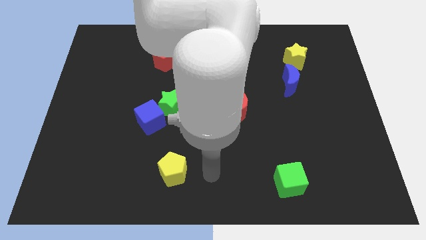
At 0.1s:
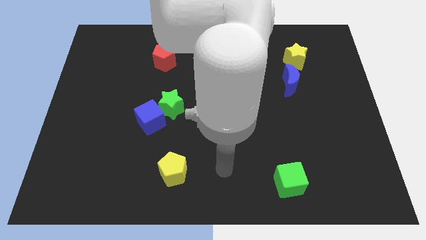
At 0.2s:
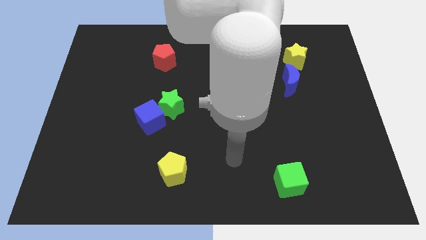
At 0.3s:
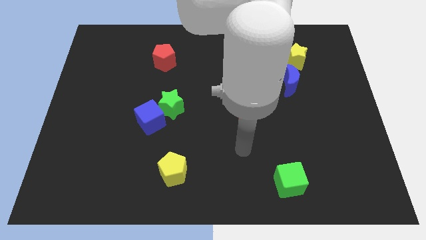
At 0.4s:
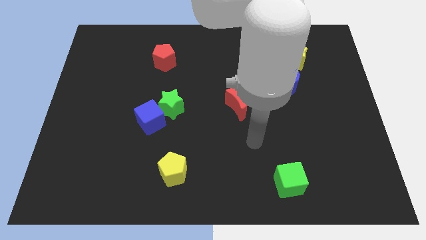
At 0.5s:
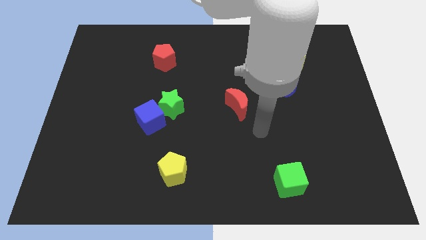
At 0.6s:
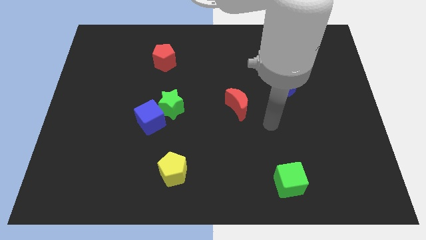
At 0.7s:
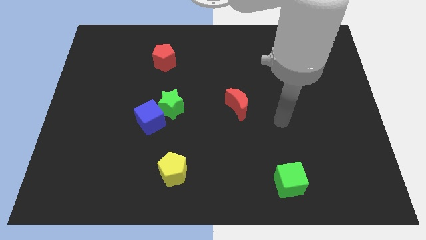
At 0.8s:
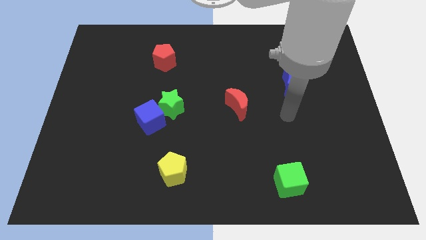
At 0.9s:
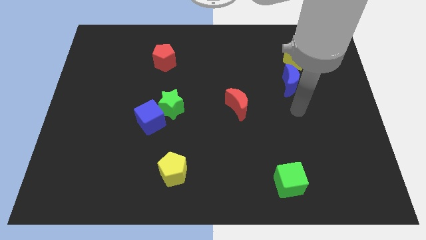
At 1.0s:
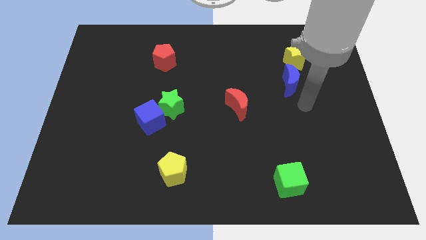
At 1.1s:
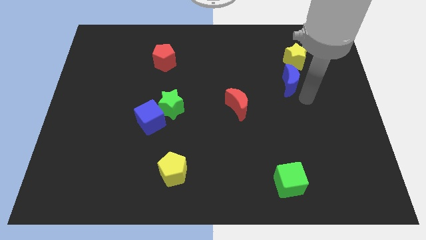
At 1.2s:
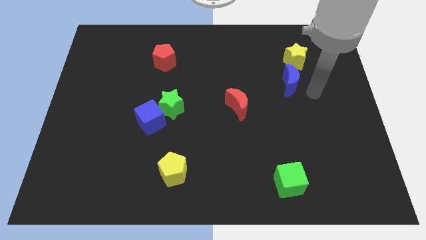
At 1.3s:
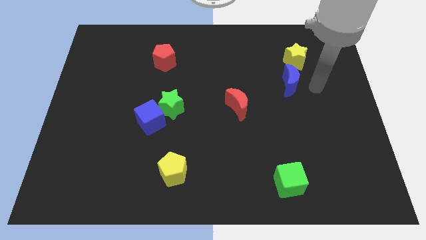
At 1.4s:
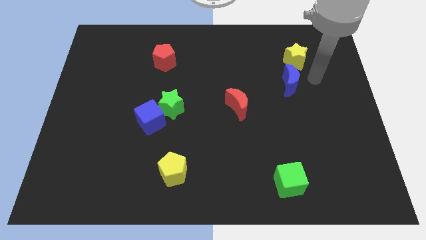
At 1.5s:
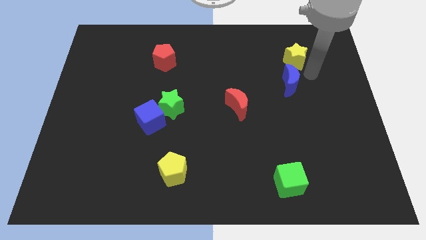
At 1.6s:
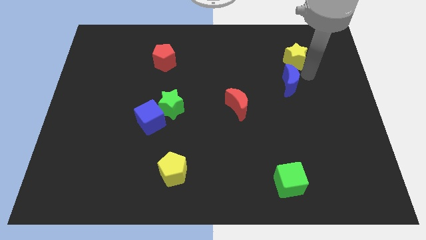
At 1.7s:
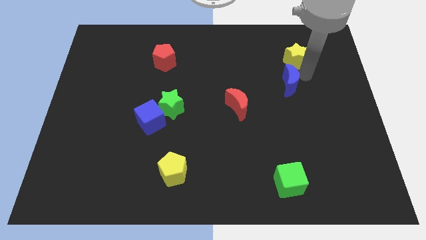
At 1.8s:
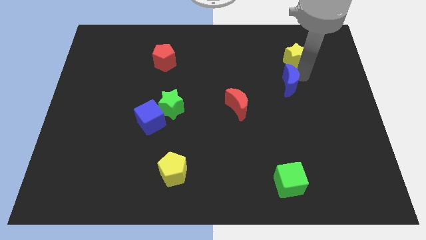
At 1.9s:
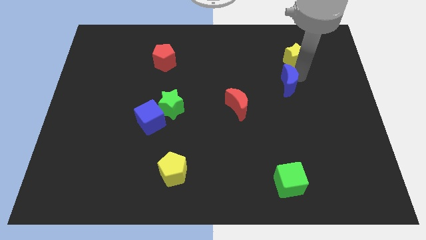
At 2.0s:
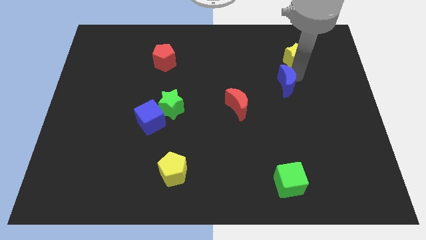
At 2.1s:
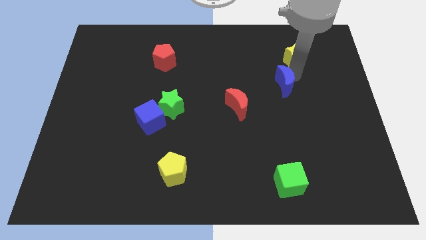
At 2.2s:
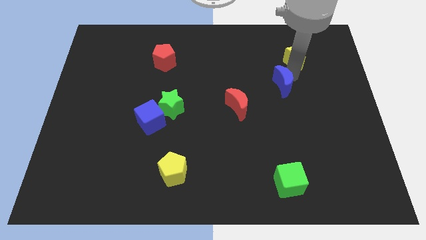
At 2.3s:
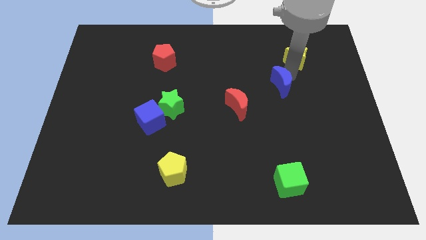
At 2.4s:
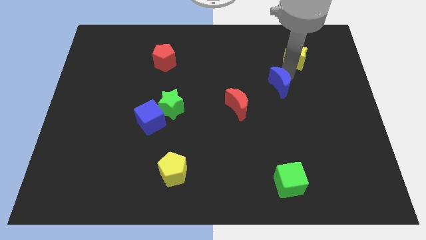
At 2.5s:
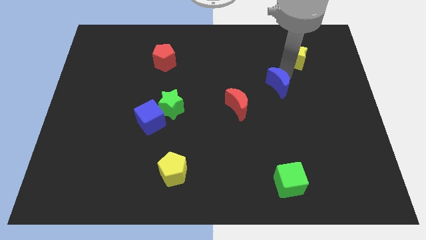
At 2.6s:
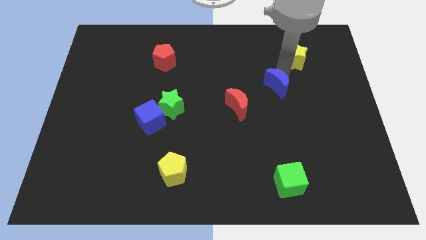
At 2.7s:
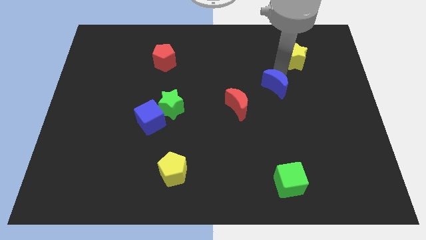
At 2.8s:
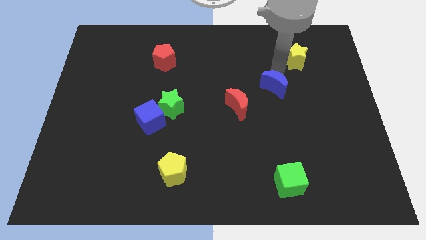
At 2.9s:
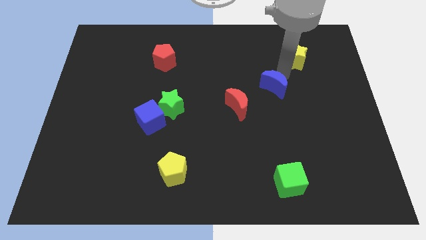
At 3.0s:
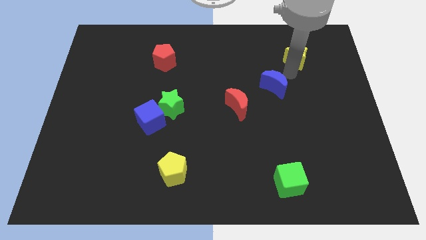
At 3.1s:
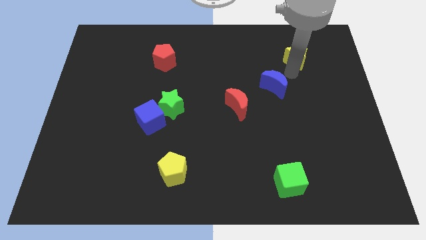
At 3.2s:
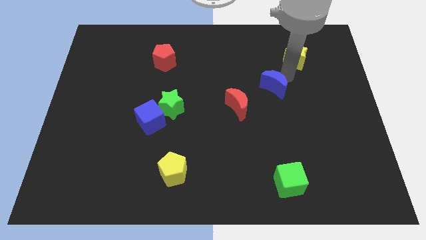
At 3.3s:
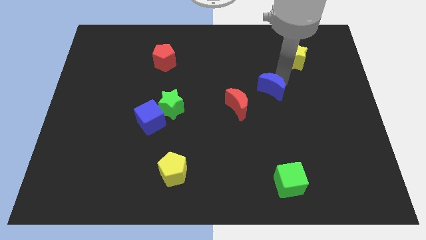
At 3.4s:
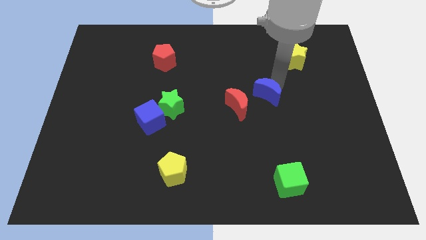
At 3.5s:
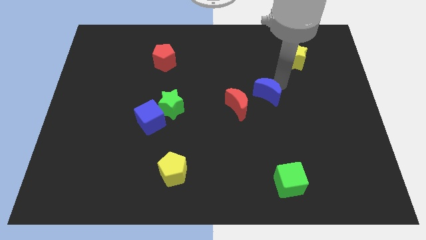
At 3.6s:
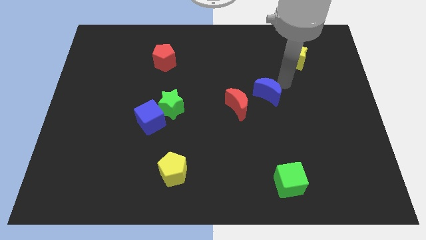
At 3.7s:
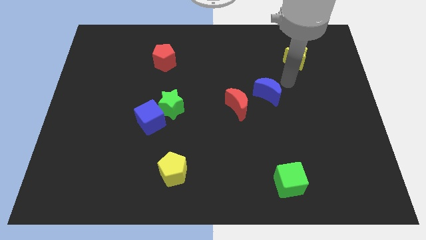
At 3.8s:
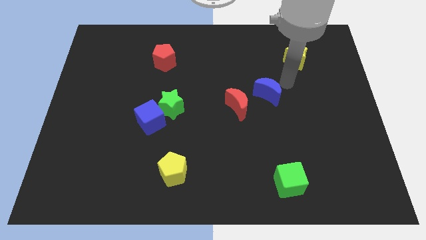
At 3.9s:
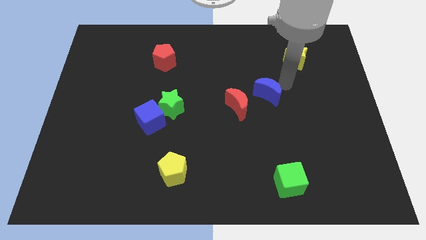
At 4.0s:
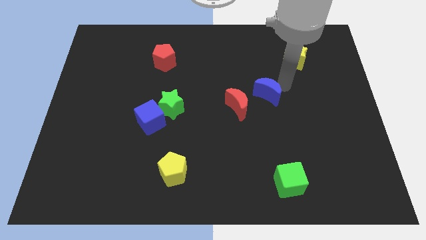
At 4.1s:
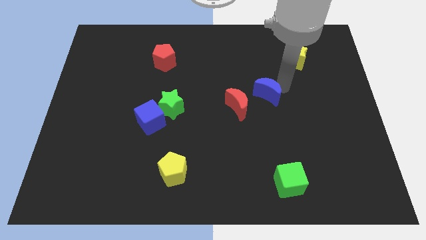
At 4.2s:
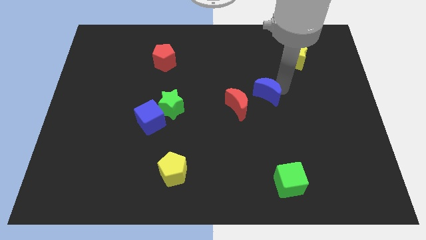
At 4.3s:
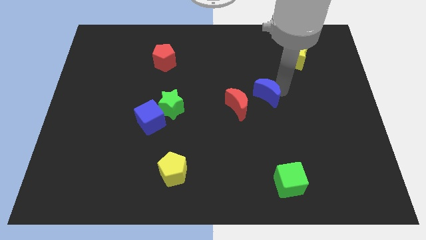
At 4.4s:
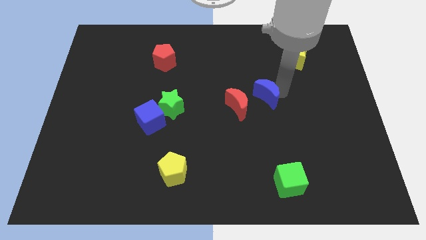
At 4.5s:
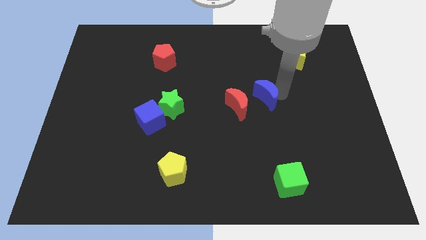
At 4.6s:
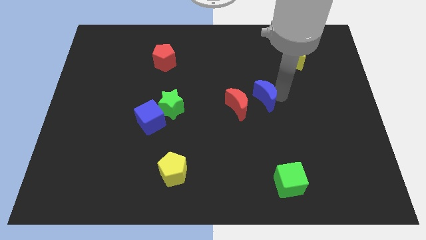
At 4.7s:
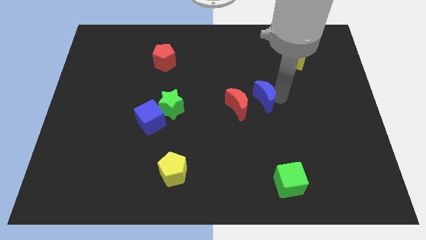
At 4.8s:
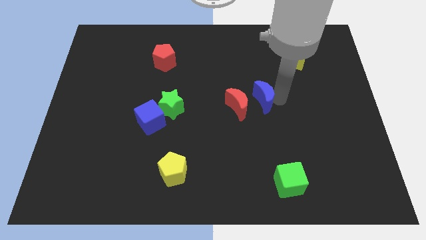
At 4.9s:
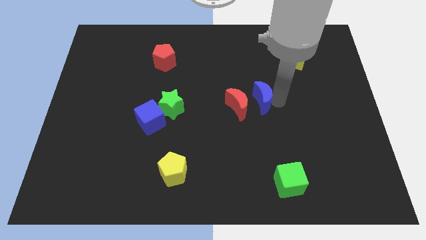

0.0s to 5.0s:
slide the blue moon next to the red moon

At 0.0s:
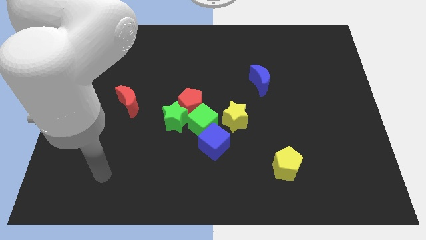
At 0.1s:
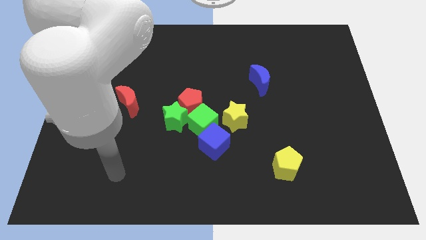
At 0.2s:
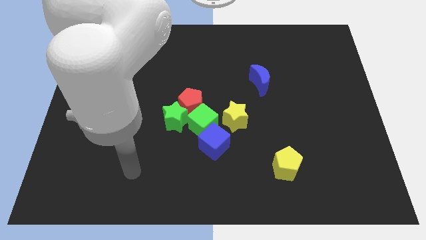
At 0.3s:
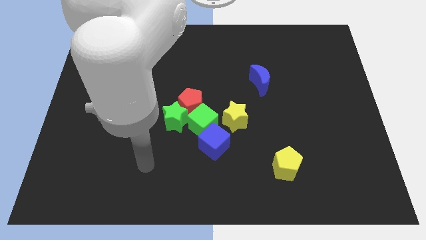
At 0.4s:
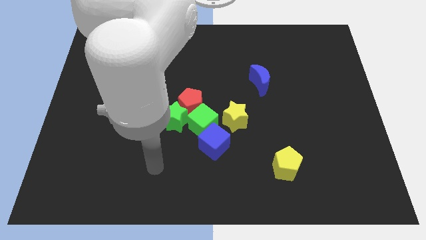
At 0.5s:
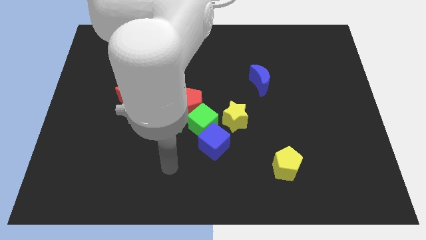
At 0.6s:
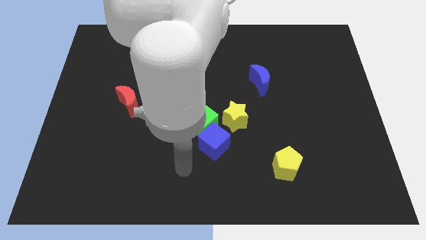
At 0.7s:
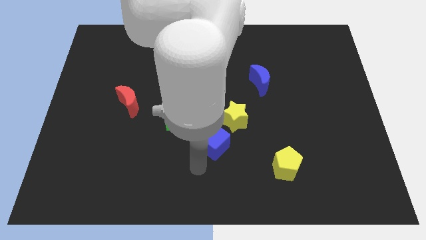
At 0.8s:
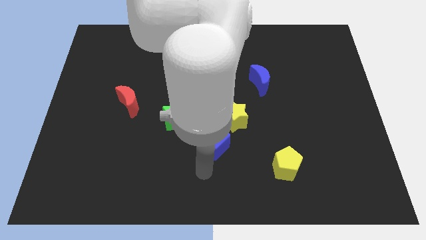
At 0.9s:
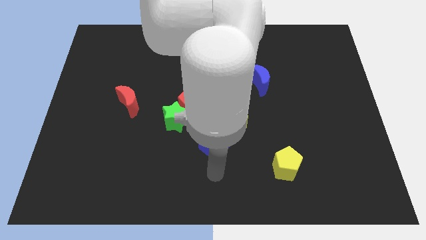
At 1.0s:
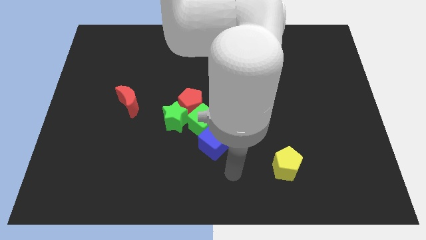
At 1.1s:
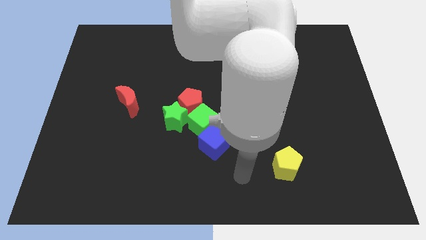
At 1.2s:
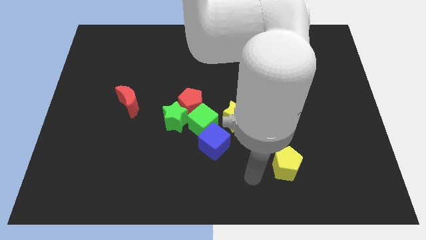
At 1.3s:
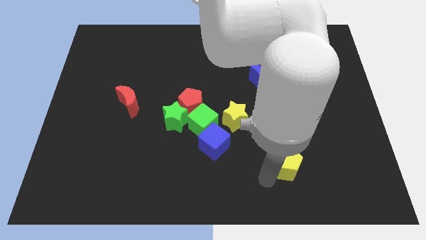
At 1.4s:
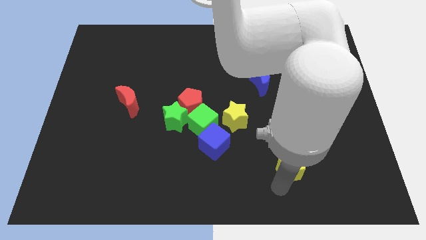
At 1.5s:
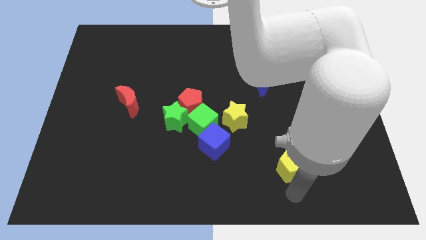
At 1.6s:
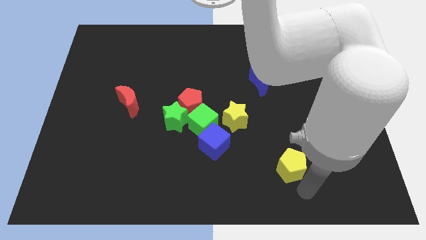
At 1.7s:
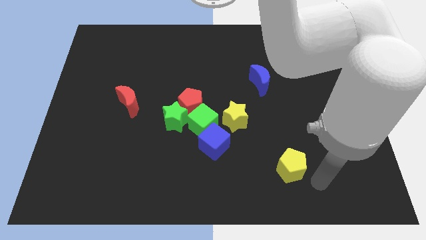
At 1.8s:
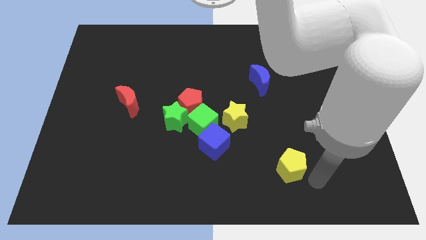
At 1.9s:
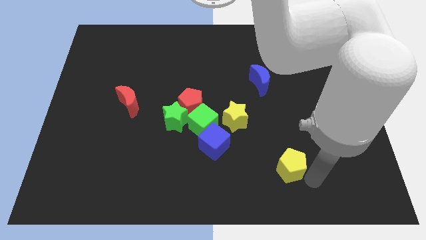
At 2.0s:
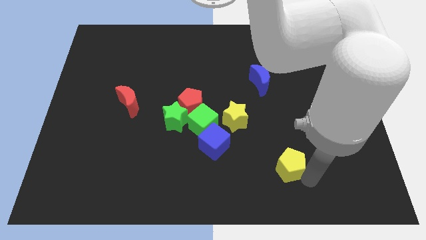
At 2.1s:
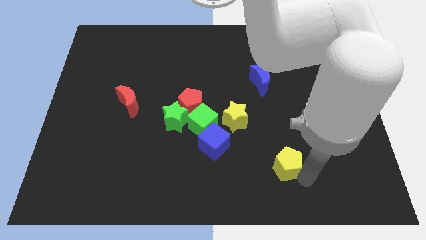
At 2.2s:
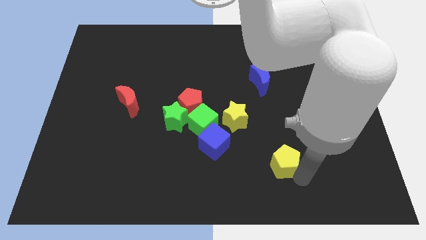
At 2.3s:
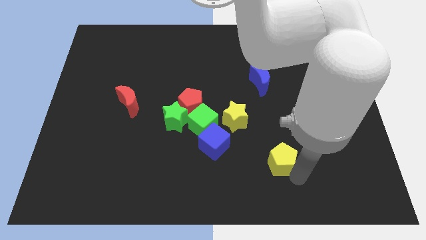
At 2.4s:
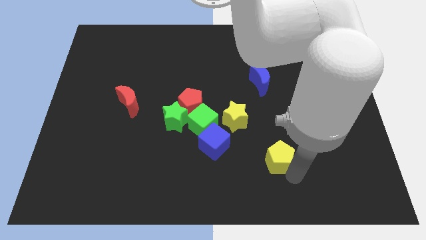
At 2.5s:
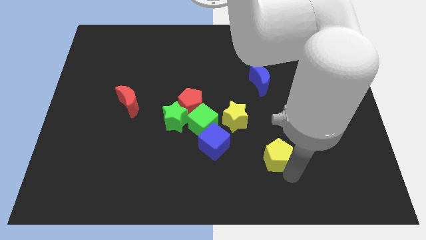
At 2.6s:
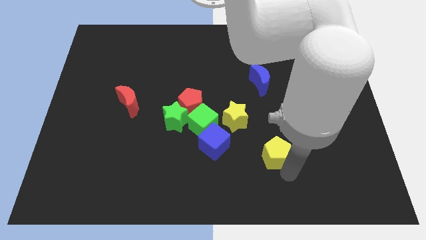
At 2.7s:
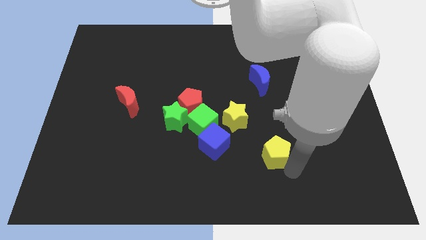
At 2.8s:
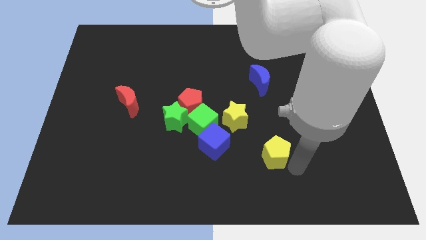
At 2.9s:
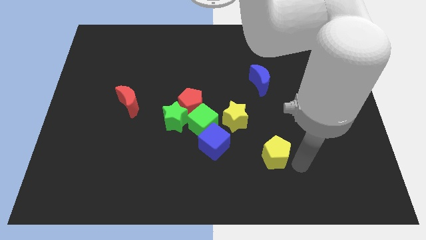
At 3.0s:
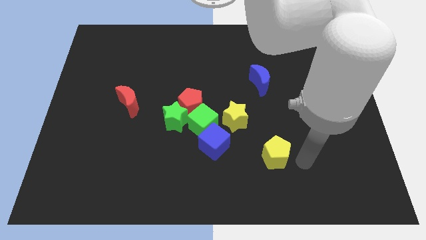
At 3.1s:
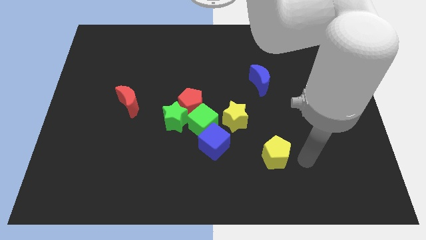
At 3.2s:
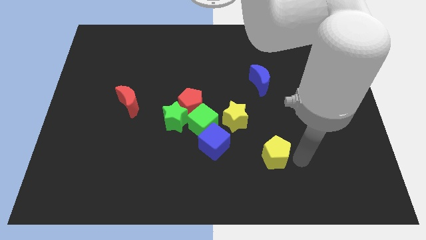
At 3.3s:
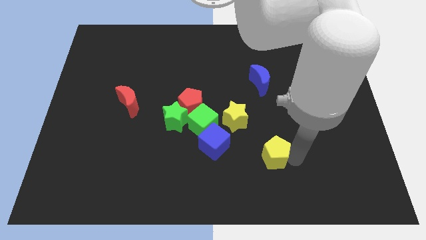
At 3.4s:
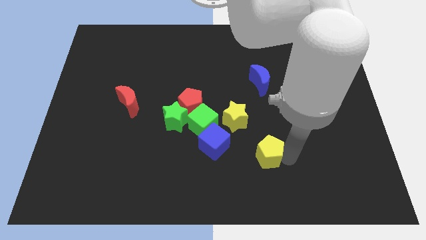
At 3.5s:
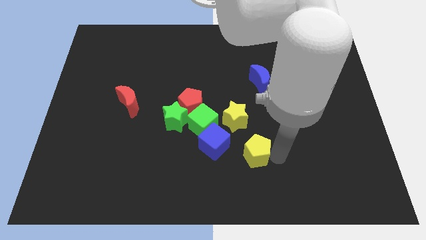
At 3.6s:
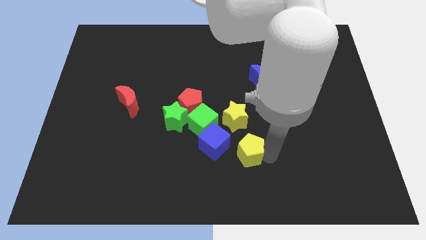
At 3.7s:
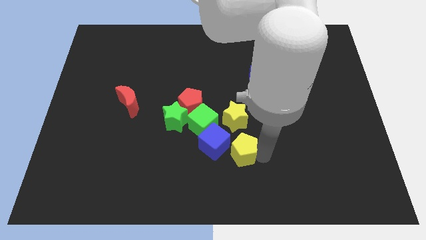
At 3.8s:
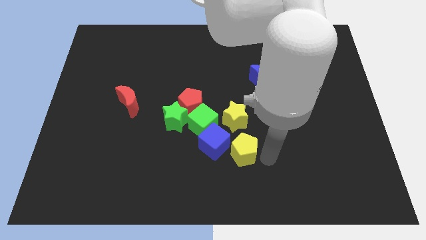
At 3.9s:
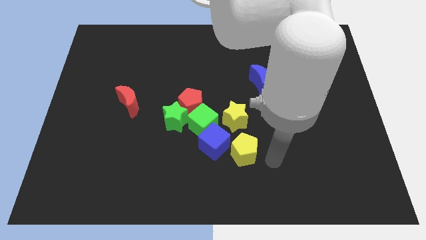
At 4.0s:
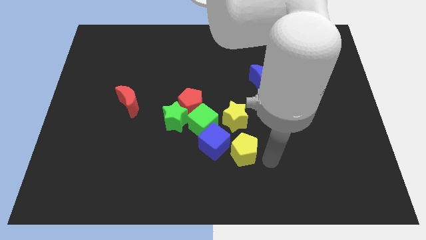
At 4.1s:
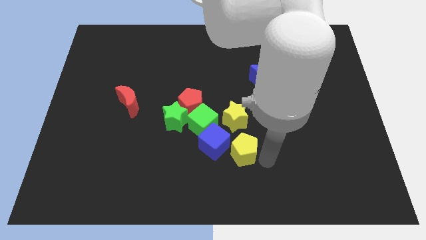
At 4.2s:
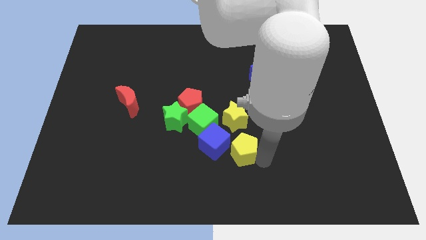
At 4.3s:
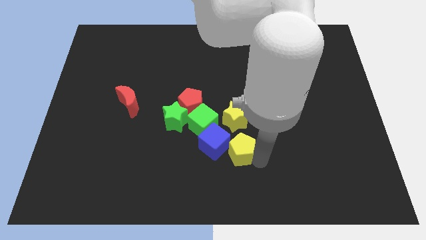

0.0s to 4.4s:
slide the yellow pentagon next to the blue cube
